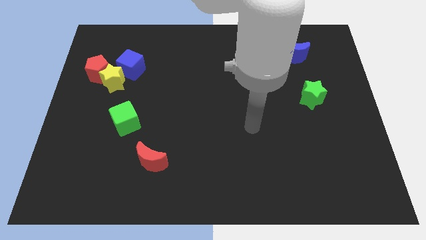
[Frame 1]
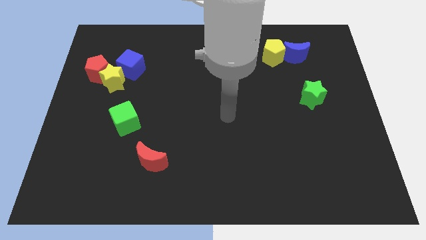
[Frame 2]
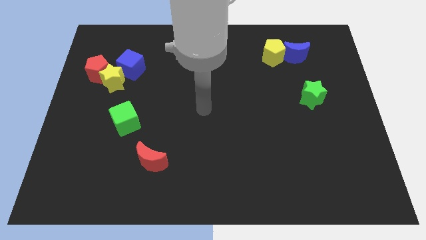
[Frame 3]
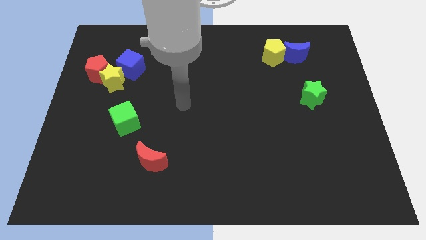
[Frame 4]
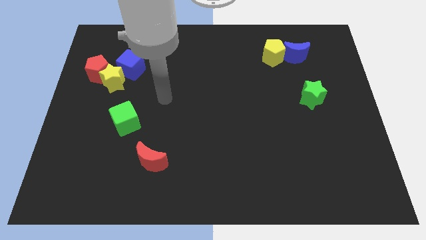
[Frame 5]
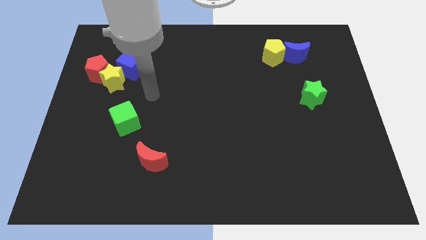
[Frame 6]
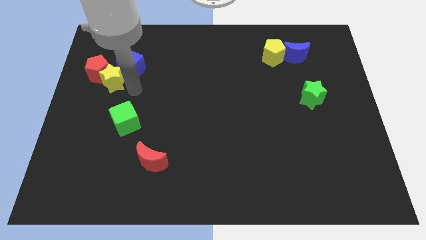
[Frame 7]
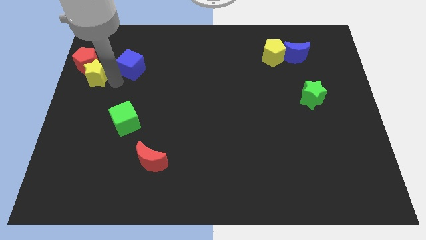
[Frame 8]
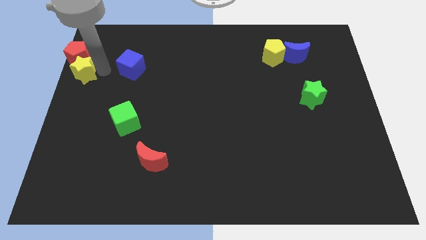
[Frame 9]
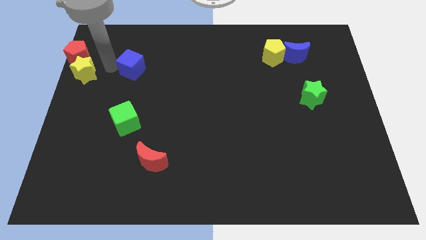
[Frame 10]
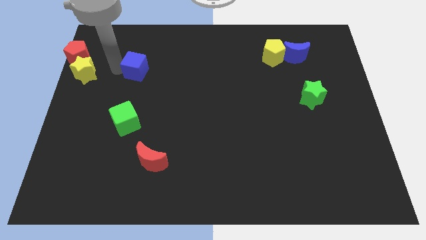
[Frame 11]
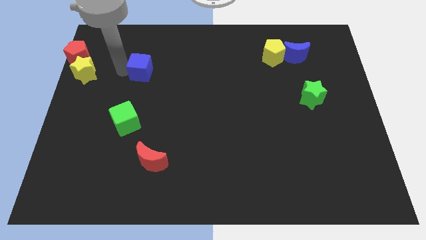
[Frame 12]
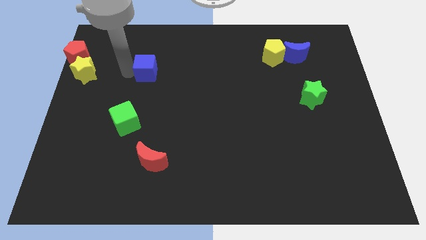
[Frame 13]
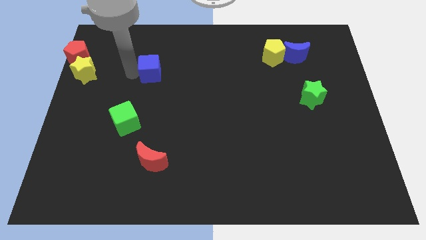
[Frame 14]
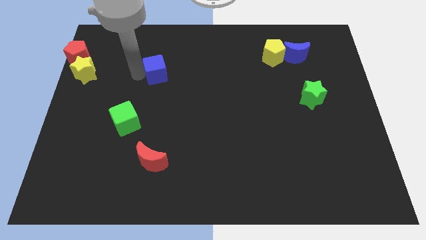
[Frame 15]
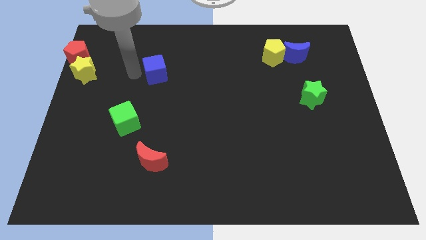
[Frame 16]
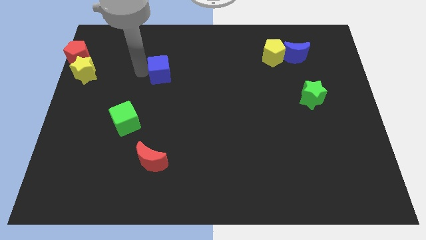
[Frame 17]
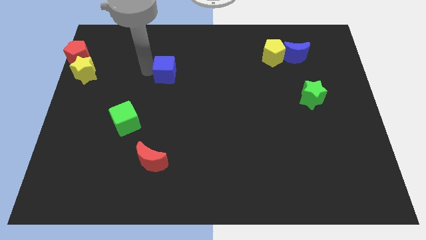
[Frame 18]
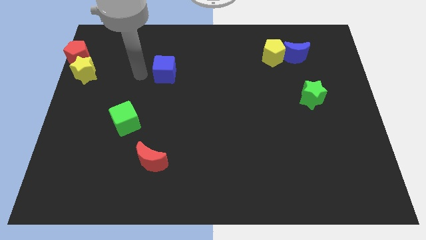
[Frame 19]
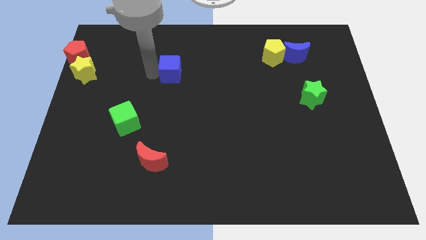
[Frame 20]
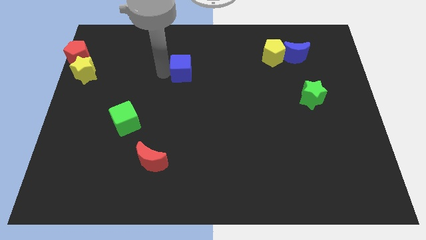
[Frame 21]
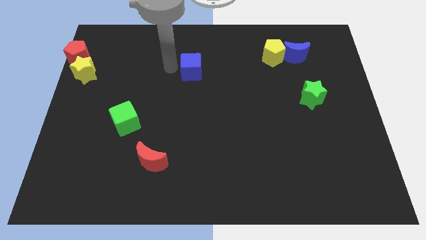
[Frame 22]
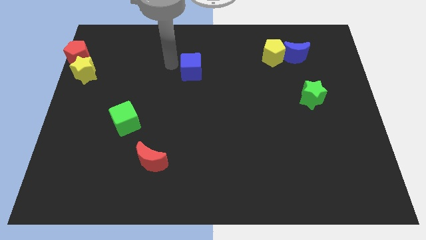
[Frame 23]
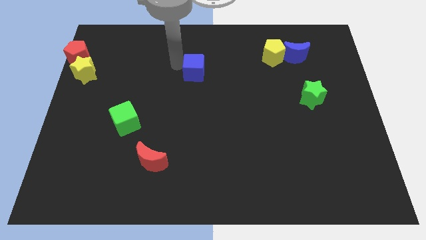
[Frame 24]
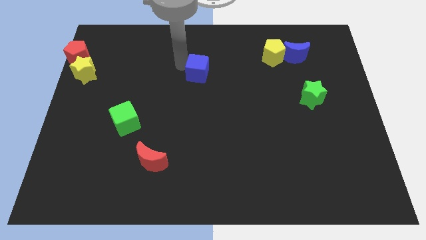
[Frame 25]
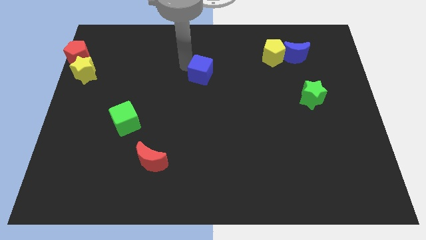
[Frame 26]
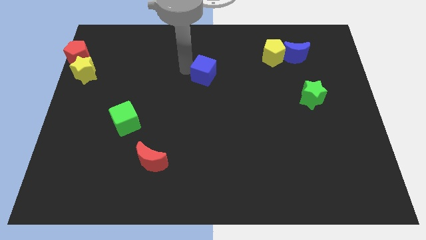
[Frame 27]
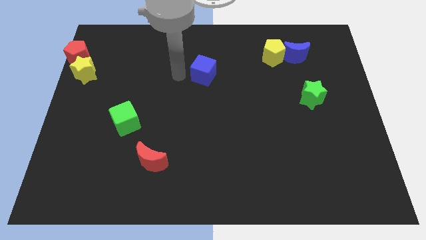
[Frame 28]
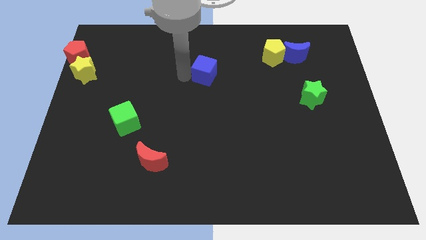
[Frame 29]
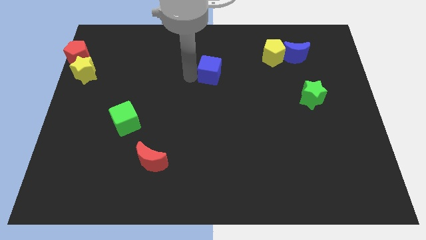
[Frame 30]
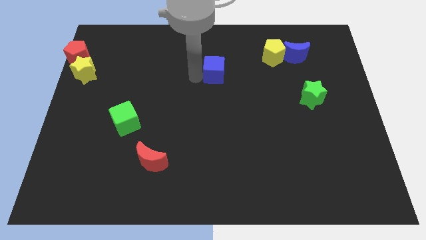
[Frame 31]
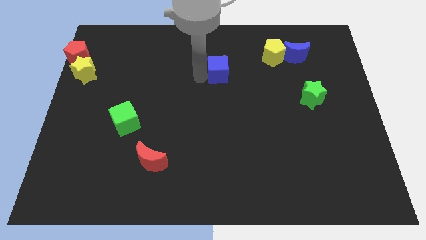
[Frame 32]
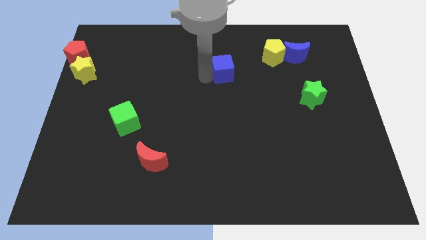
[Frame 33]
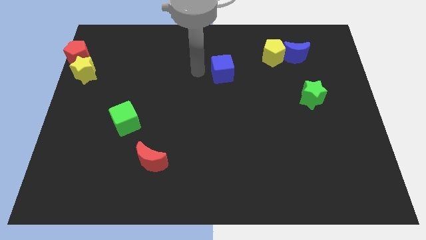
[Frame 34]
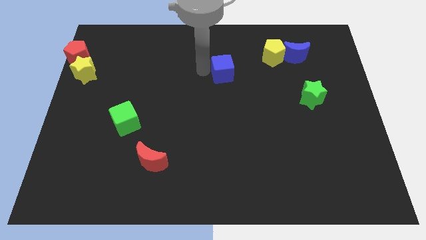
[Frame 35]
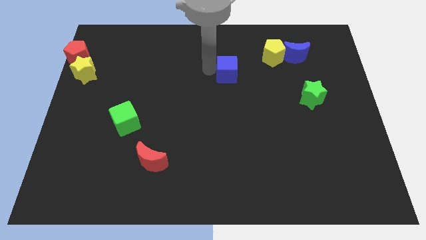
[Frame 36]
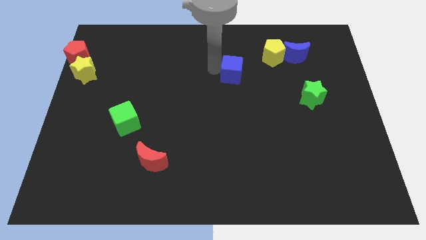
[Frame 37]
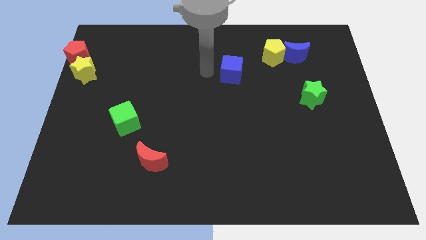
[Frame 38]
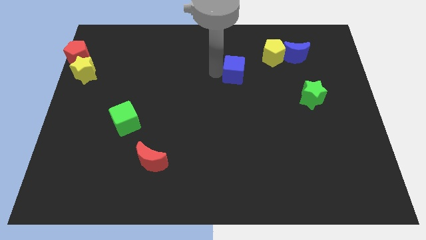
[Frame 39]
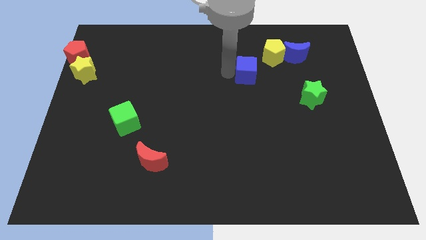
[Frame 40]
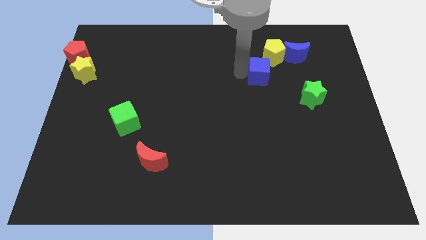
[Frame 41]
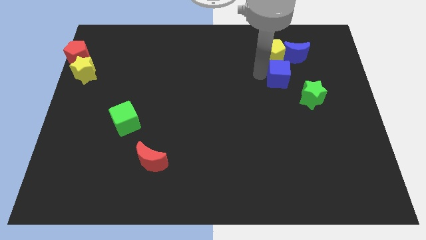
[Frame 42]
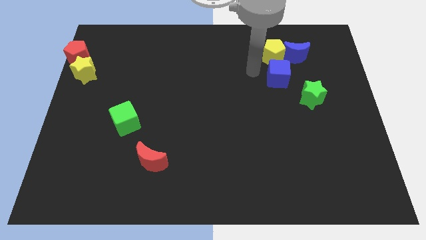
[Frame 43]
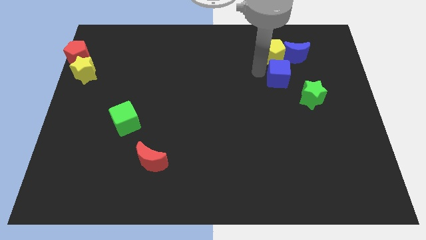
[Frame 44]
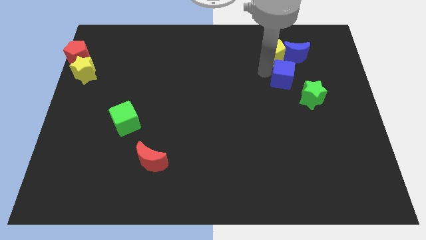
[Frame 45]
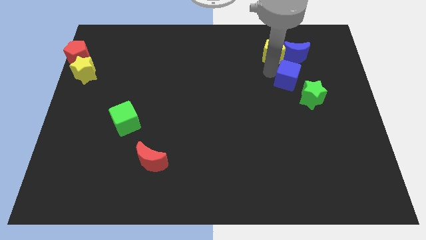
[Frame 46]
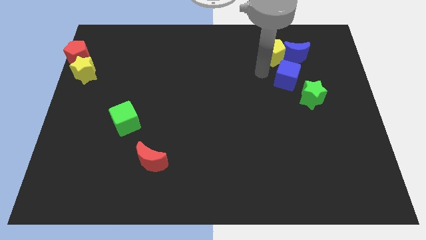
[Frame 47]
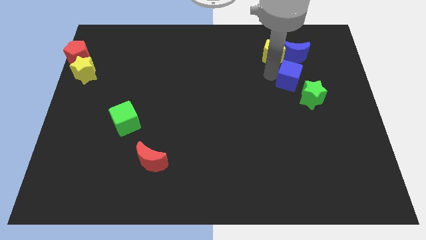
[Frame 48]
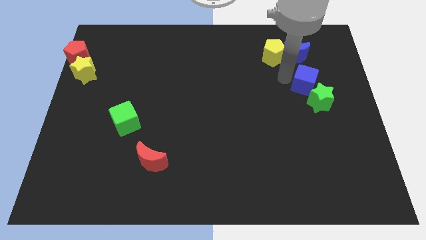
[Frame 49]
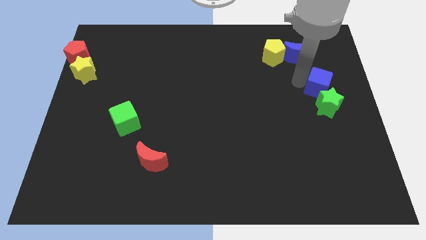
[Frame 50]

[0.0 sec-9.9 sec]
push the blue cube to the center right
